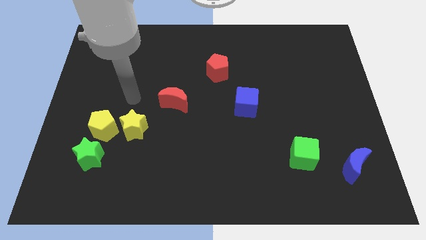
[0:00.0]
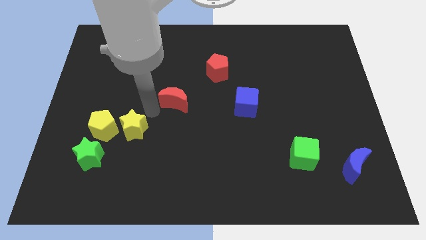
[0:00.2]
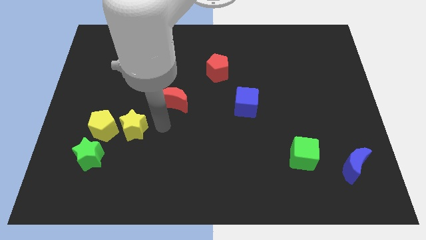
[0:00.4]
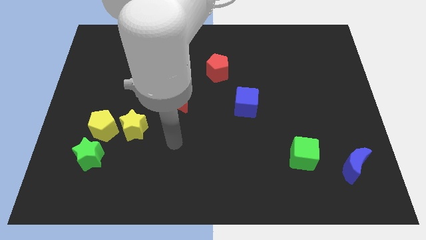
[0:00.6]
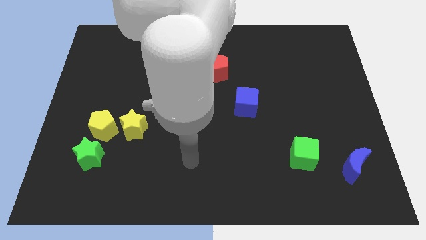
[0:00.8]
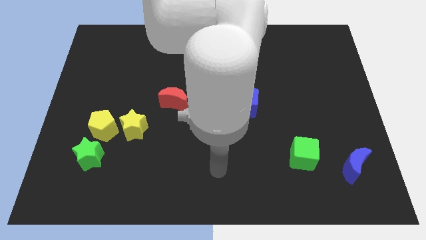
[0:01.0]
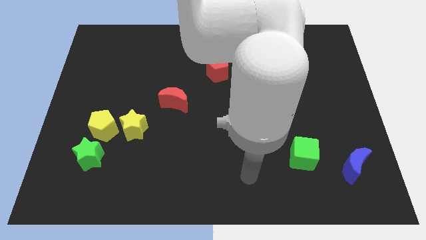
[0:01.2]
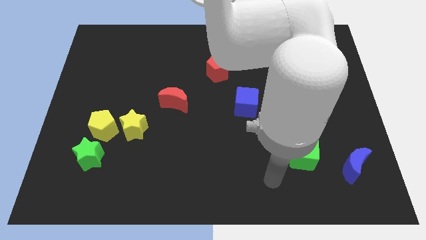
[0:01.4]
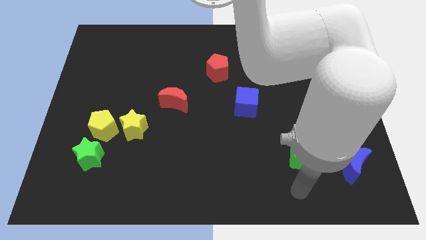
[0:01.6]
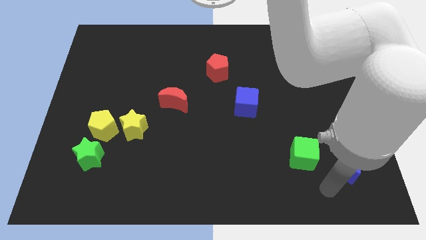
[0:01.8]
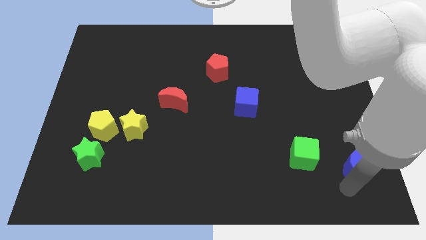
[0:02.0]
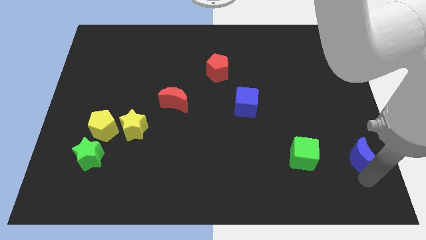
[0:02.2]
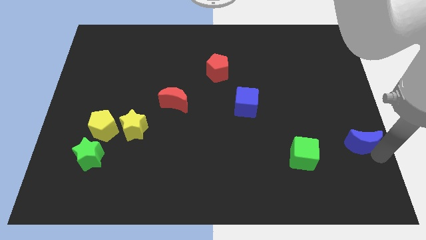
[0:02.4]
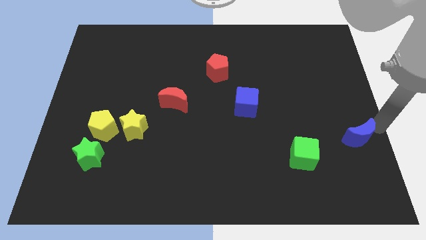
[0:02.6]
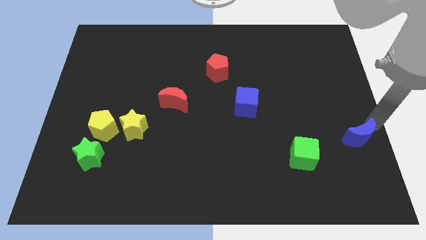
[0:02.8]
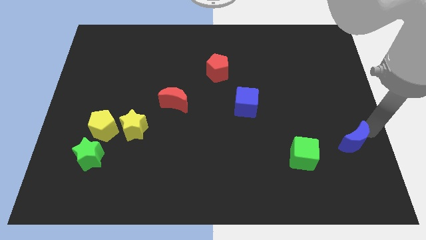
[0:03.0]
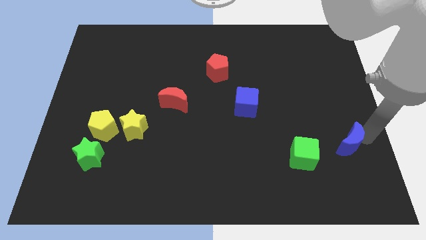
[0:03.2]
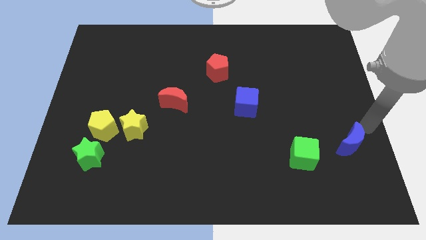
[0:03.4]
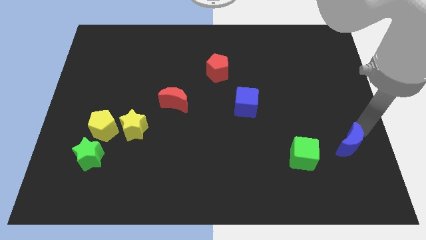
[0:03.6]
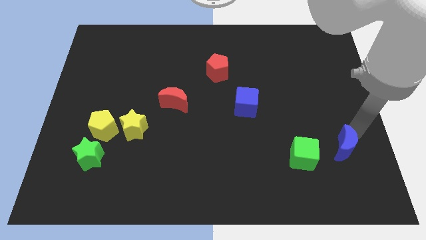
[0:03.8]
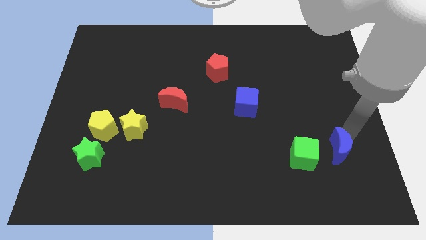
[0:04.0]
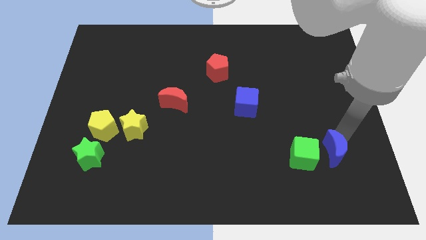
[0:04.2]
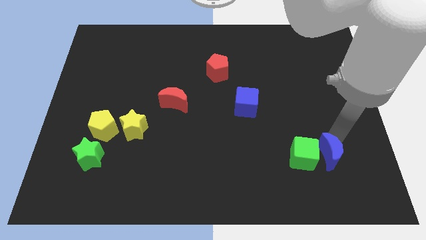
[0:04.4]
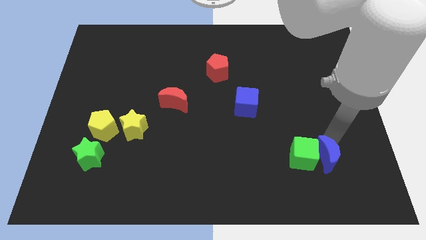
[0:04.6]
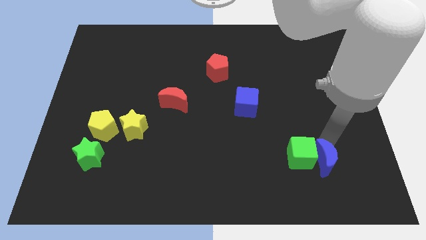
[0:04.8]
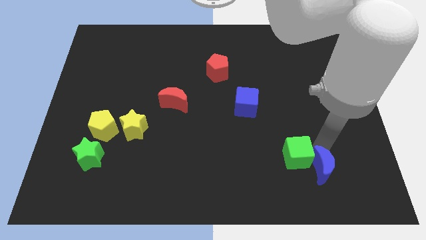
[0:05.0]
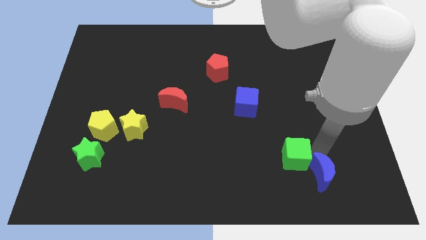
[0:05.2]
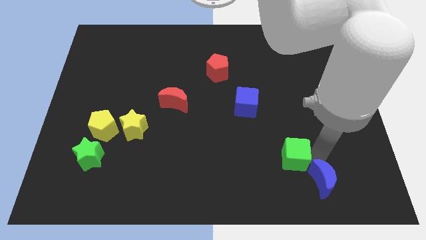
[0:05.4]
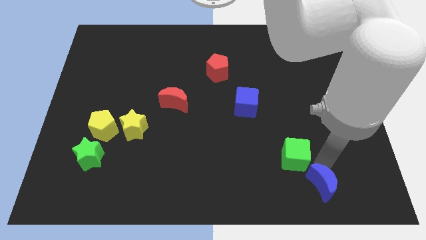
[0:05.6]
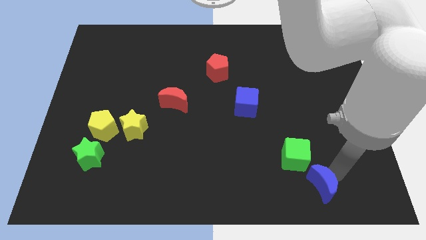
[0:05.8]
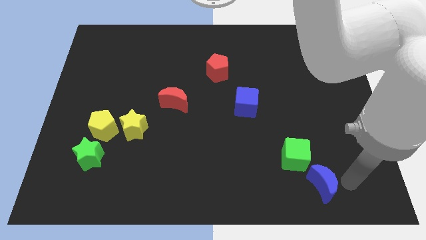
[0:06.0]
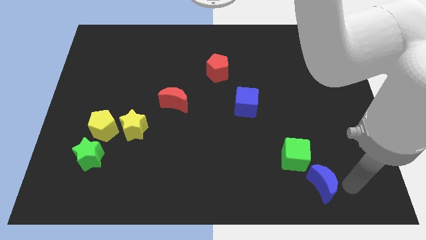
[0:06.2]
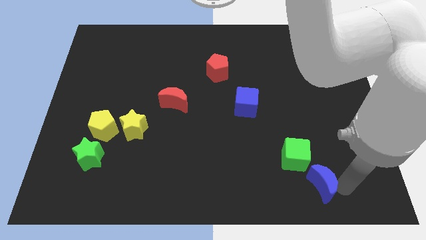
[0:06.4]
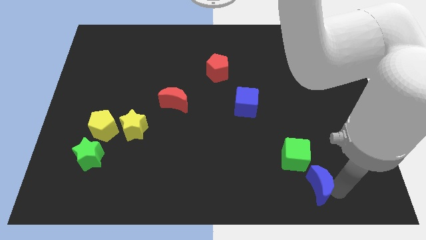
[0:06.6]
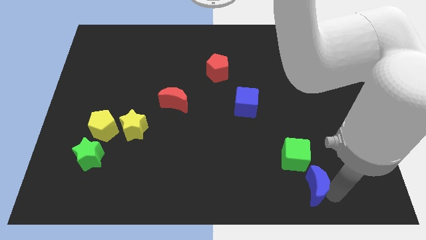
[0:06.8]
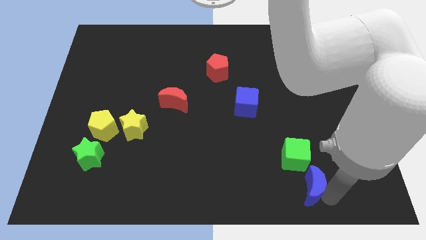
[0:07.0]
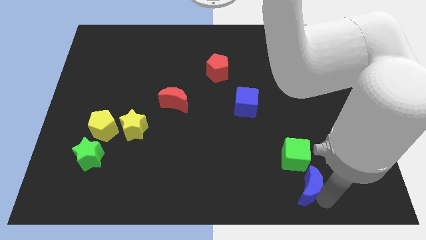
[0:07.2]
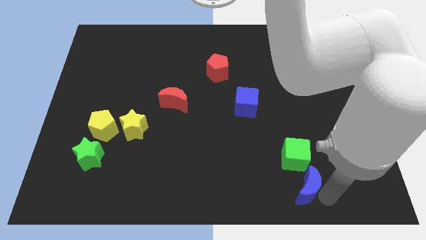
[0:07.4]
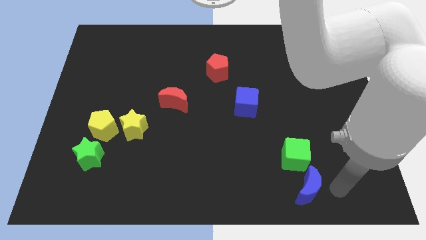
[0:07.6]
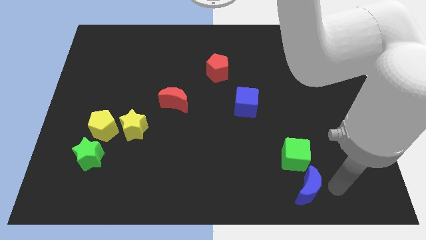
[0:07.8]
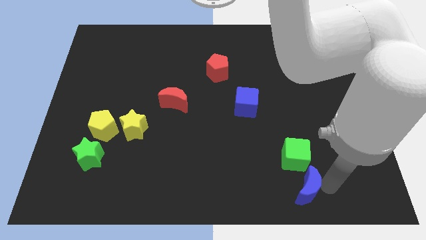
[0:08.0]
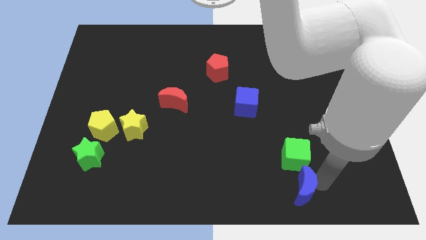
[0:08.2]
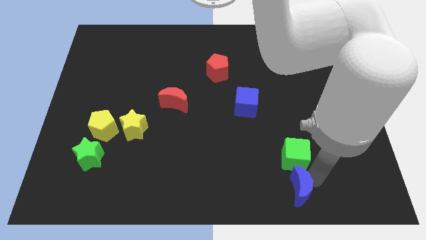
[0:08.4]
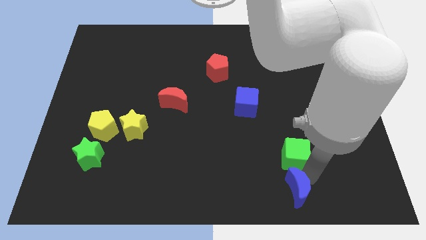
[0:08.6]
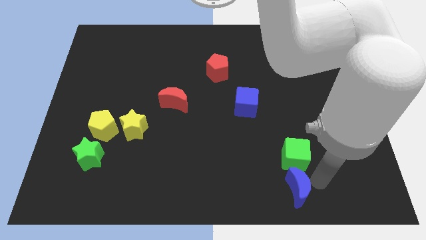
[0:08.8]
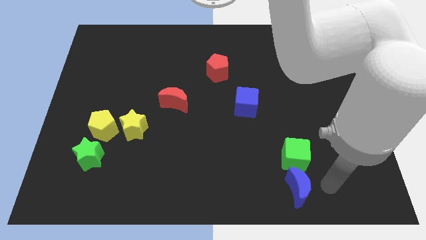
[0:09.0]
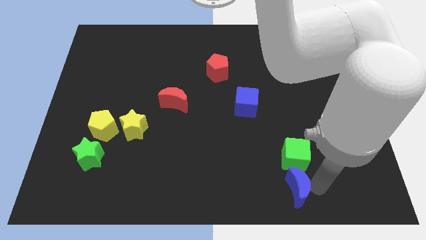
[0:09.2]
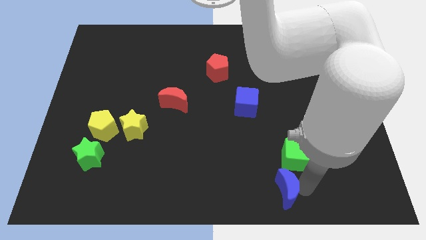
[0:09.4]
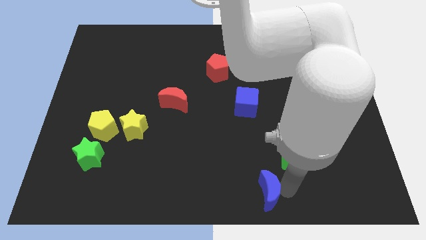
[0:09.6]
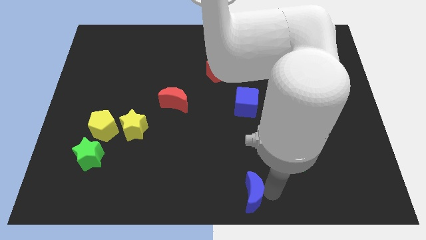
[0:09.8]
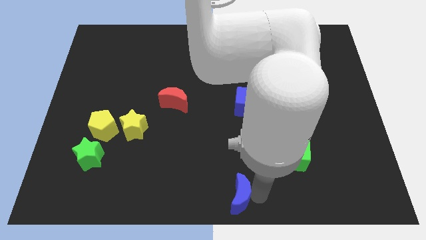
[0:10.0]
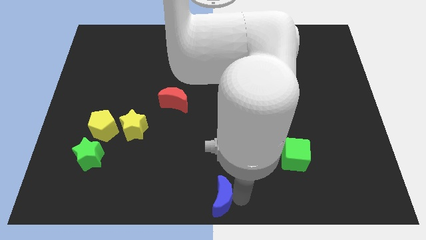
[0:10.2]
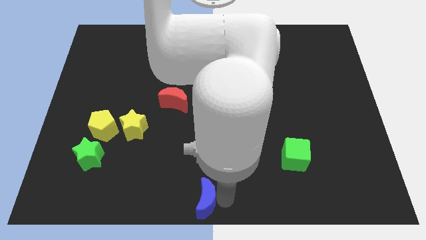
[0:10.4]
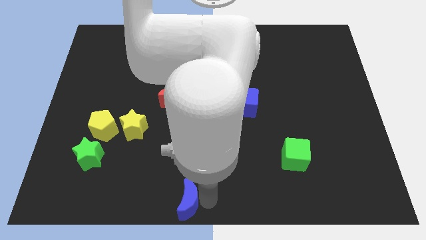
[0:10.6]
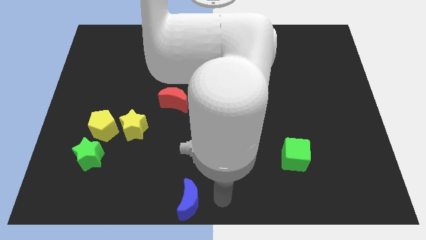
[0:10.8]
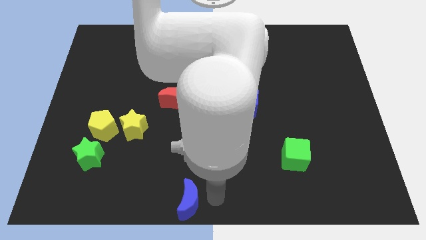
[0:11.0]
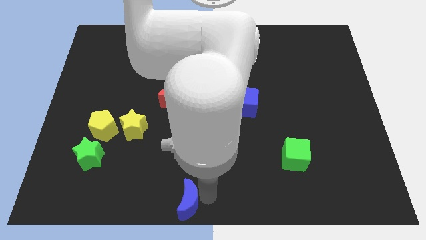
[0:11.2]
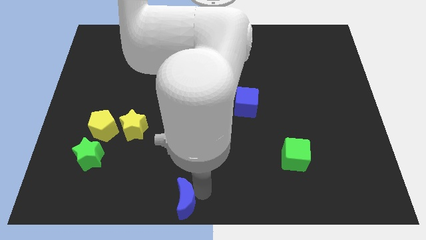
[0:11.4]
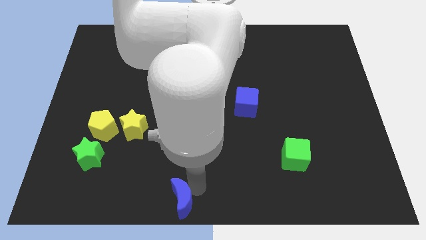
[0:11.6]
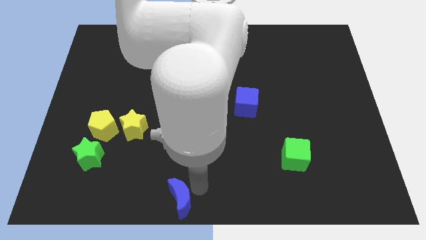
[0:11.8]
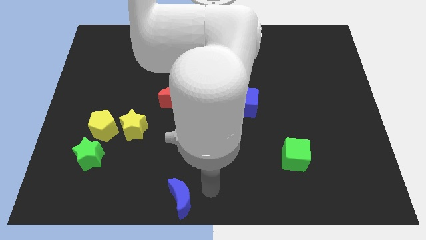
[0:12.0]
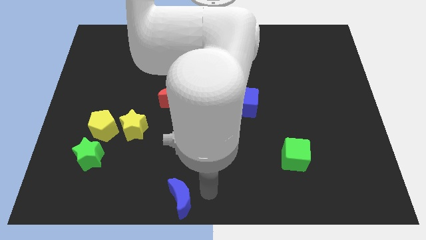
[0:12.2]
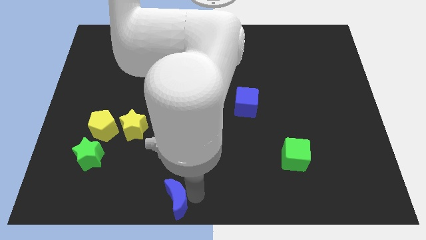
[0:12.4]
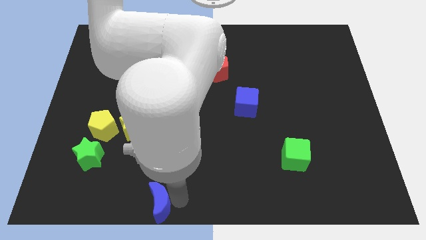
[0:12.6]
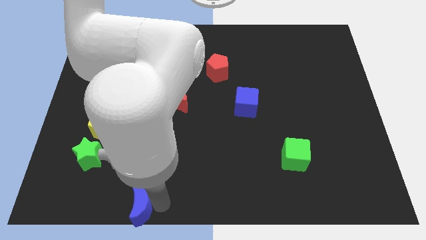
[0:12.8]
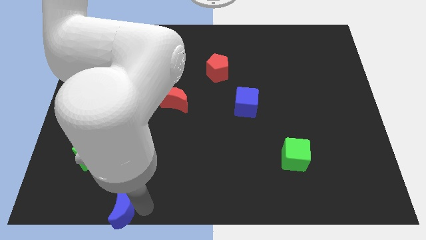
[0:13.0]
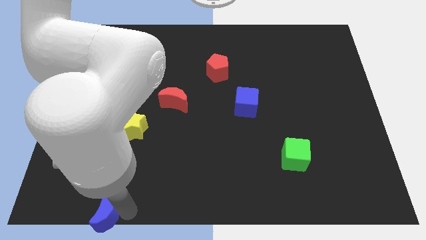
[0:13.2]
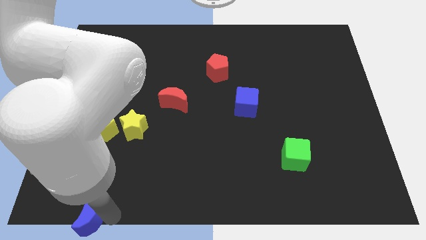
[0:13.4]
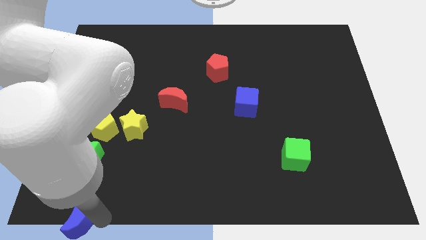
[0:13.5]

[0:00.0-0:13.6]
slide the blue moon to the bottom left
